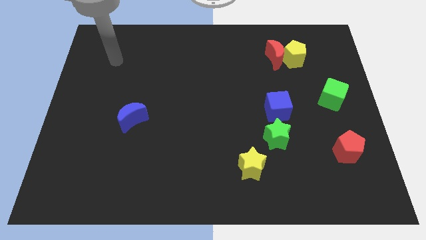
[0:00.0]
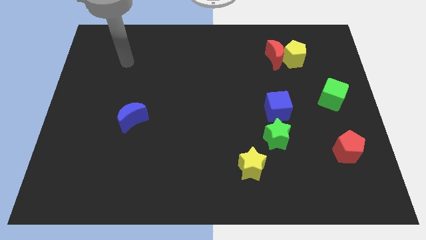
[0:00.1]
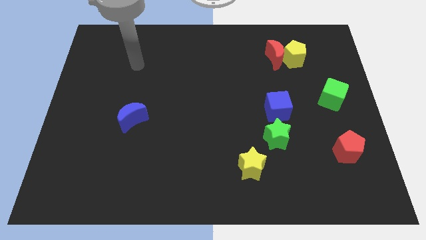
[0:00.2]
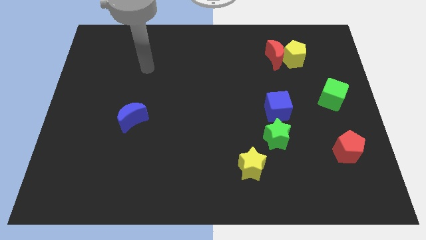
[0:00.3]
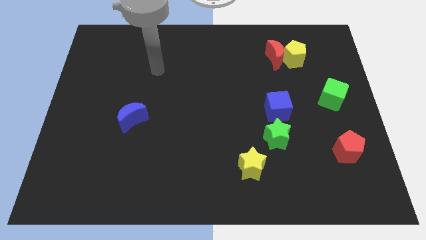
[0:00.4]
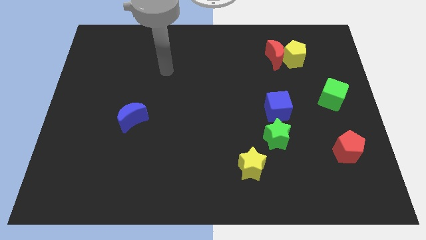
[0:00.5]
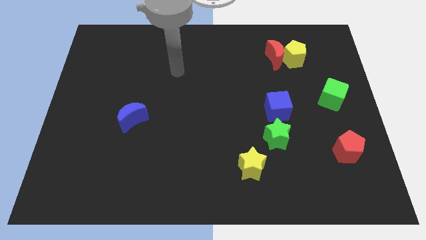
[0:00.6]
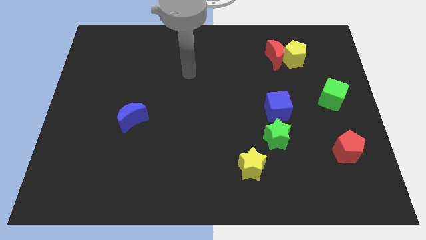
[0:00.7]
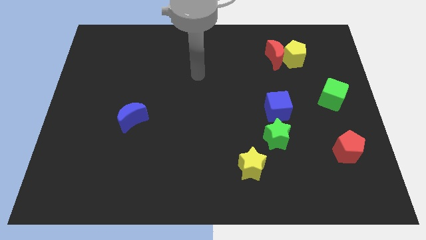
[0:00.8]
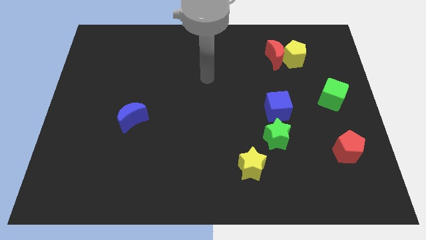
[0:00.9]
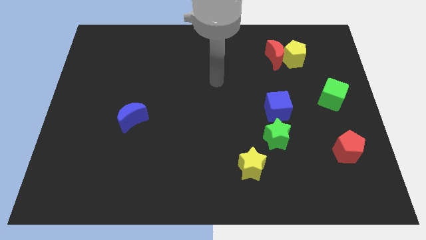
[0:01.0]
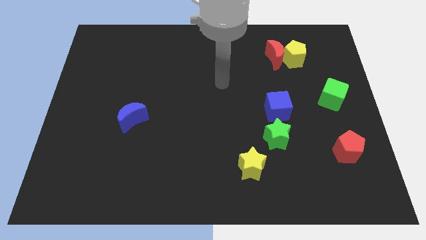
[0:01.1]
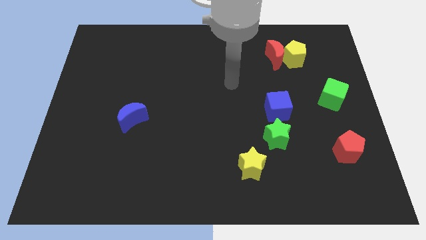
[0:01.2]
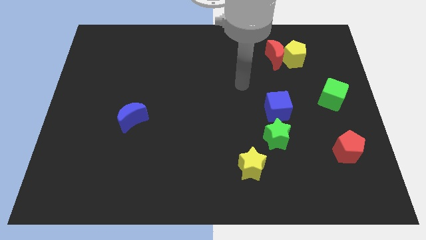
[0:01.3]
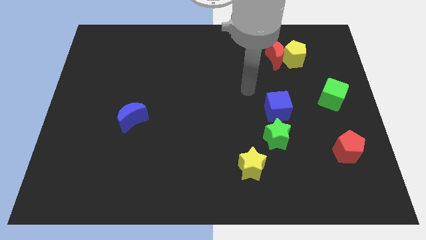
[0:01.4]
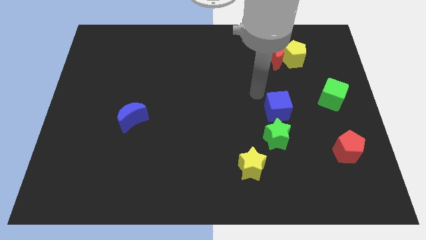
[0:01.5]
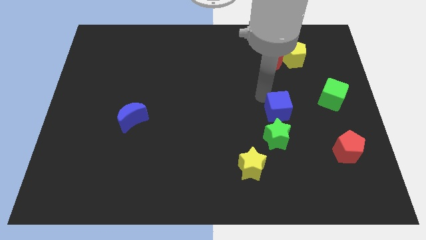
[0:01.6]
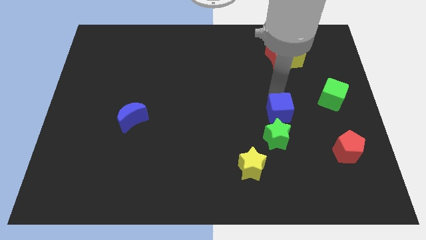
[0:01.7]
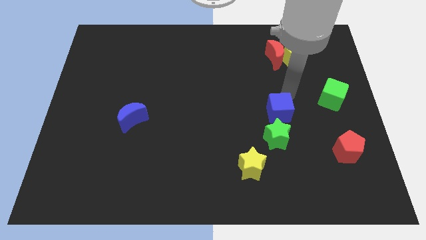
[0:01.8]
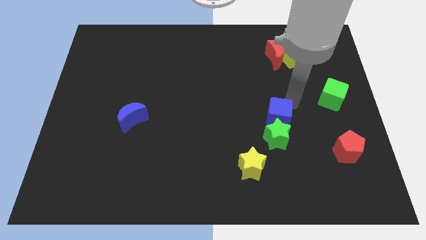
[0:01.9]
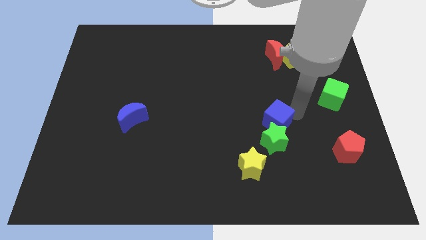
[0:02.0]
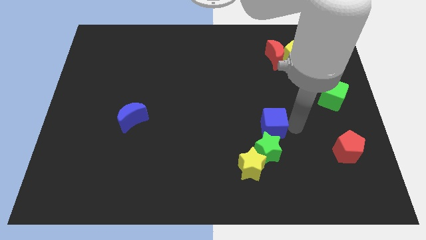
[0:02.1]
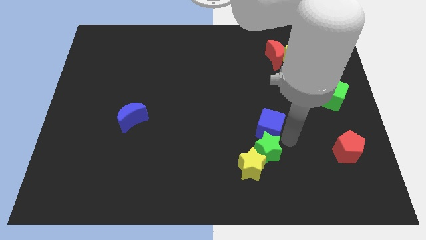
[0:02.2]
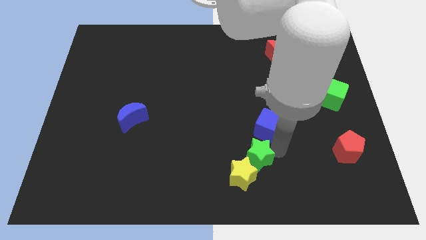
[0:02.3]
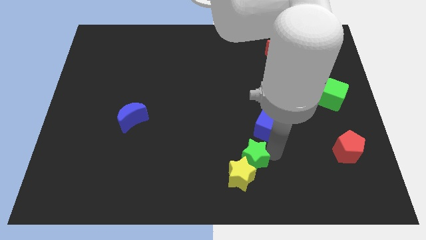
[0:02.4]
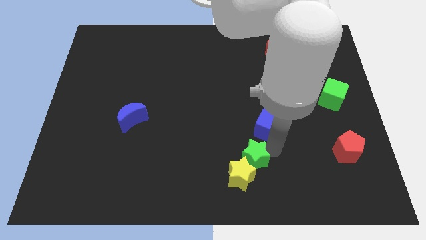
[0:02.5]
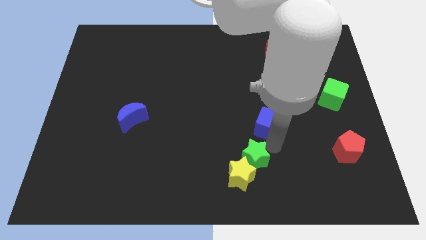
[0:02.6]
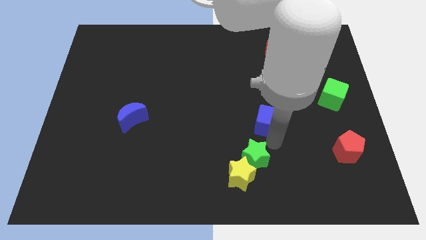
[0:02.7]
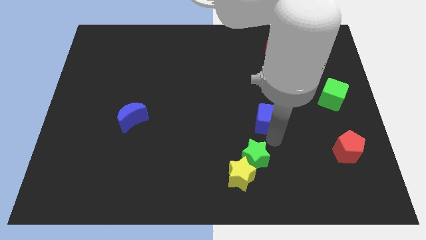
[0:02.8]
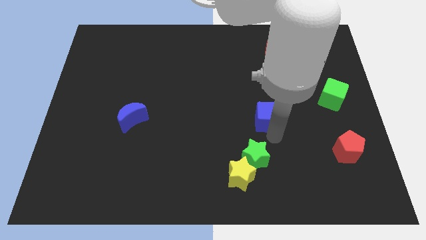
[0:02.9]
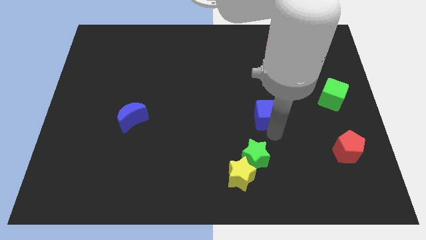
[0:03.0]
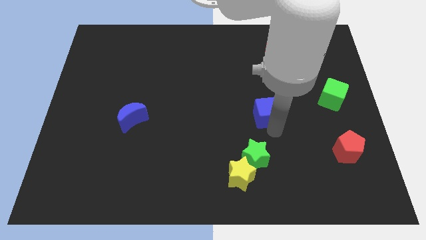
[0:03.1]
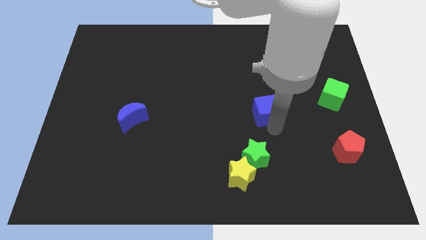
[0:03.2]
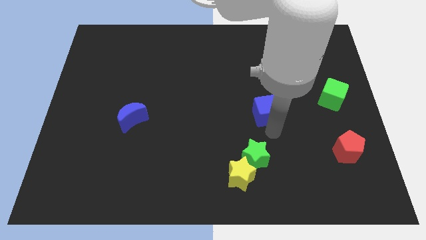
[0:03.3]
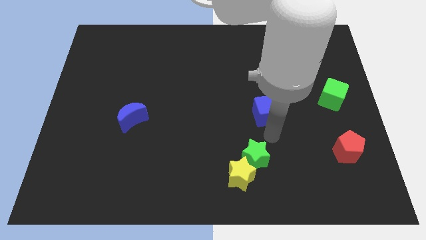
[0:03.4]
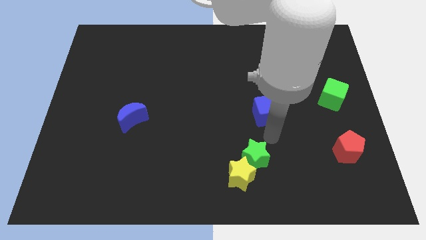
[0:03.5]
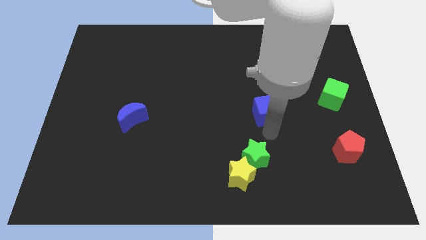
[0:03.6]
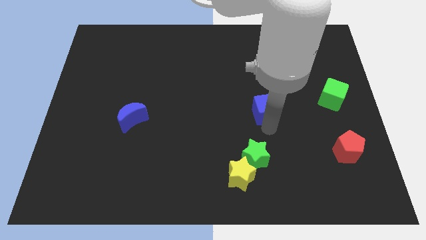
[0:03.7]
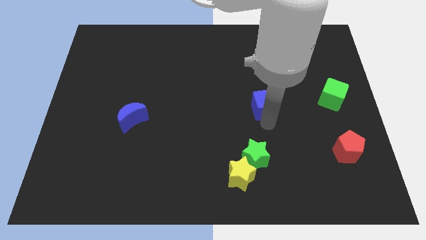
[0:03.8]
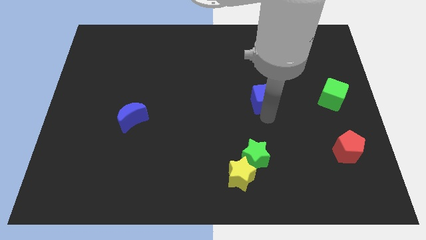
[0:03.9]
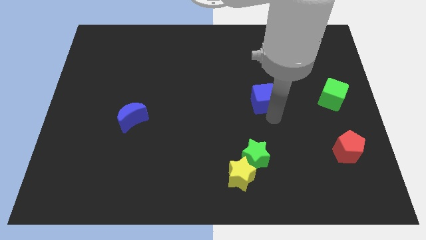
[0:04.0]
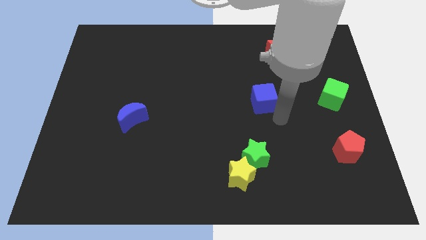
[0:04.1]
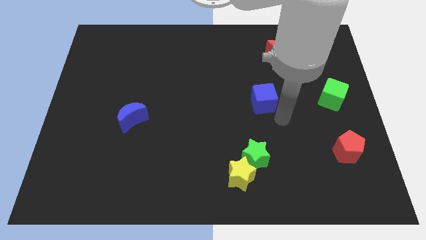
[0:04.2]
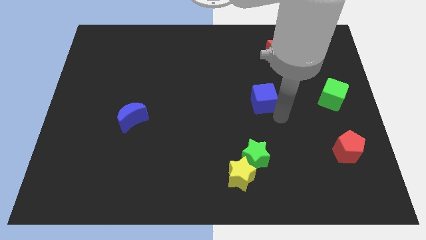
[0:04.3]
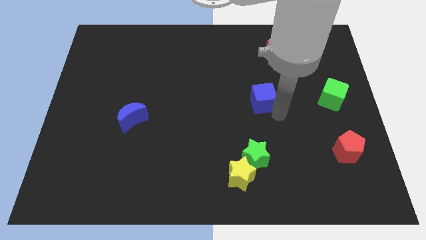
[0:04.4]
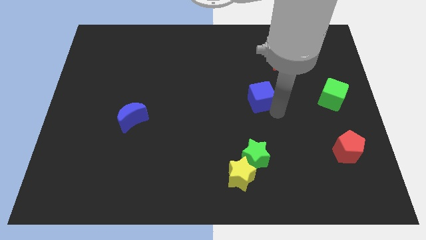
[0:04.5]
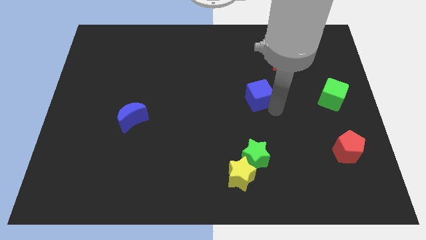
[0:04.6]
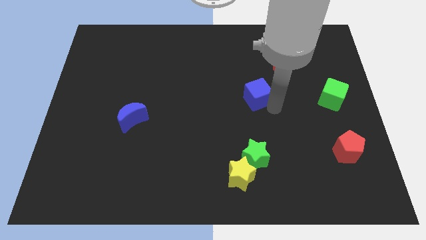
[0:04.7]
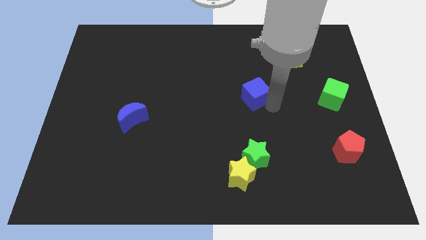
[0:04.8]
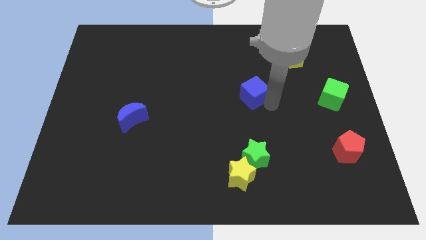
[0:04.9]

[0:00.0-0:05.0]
move the blue cube diagonally up and left a bit

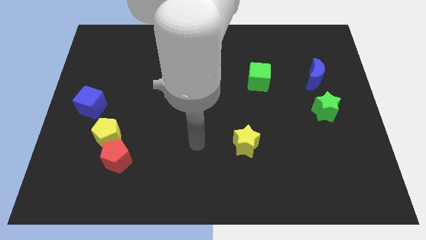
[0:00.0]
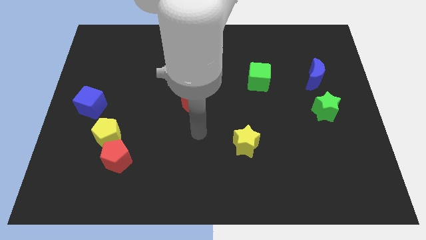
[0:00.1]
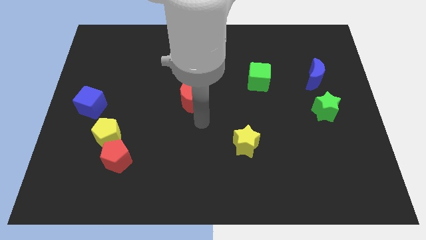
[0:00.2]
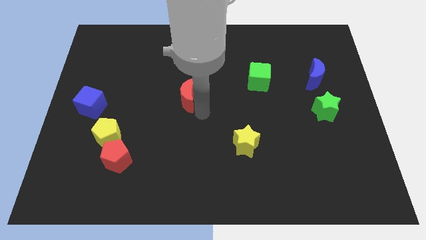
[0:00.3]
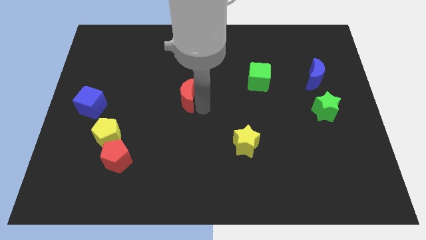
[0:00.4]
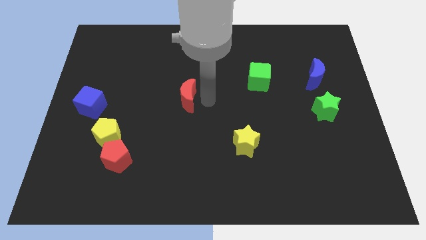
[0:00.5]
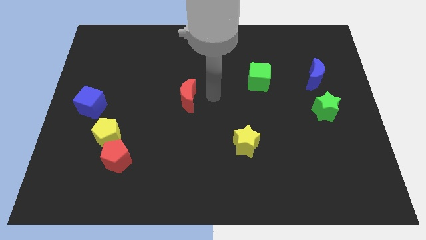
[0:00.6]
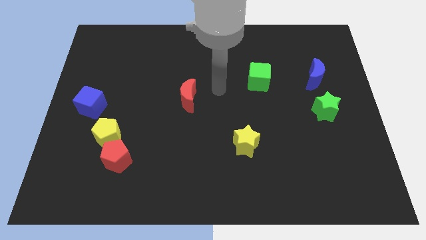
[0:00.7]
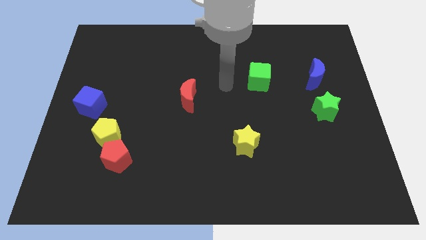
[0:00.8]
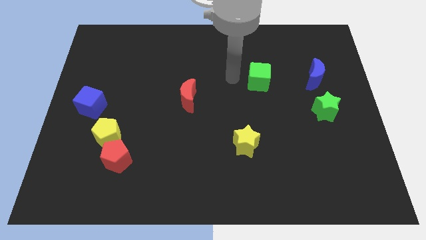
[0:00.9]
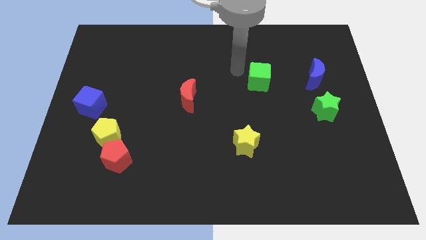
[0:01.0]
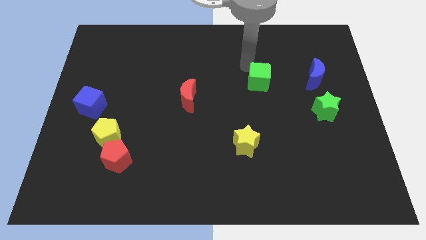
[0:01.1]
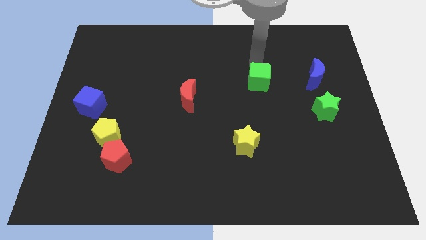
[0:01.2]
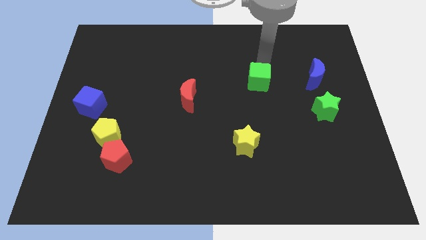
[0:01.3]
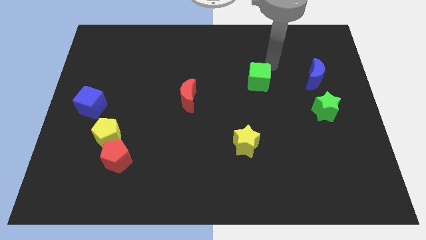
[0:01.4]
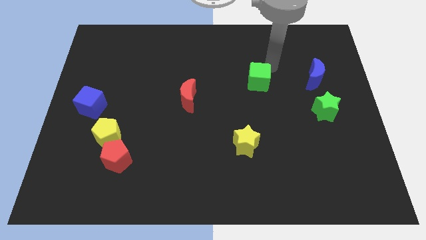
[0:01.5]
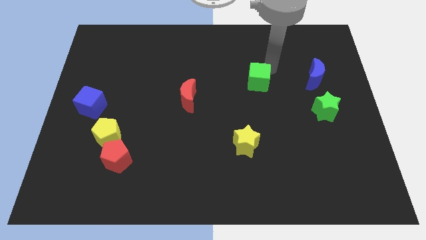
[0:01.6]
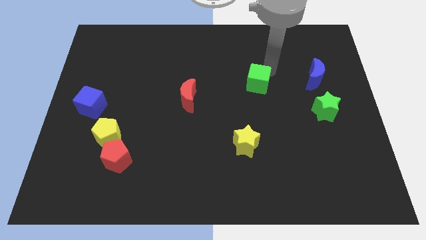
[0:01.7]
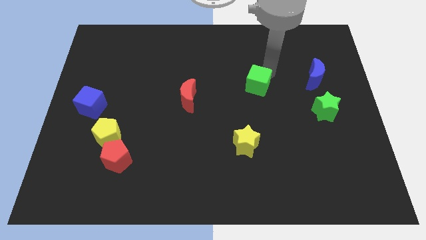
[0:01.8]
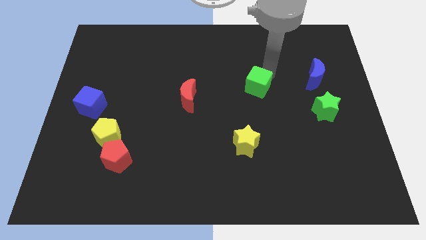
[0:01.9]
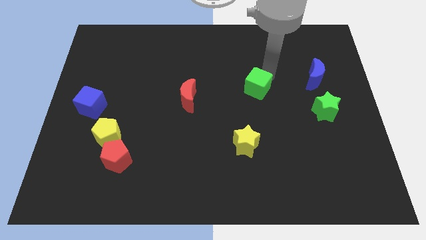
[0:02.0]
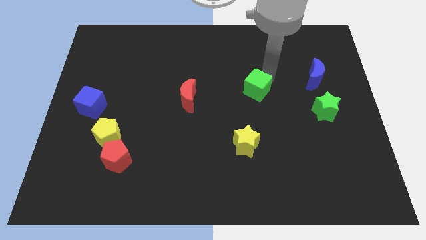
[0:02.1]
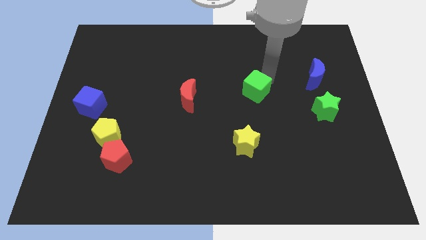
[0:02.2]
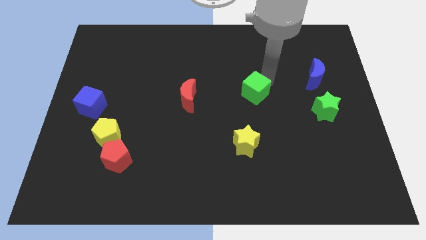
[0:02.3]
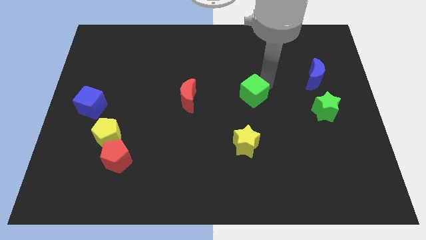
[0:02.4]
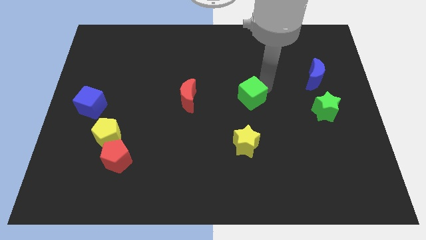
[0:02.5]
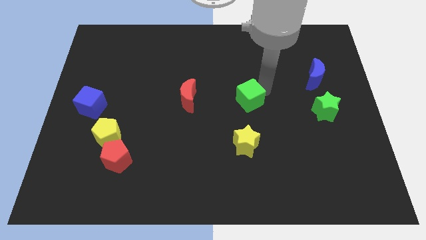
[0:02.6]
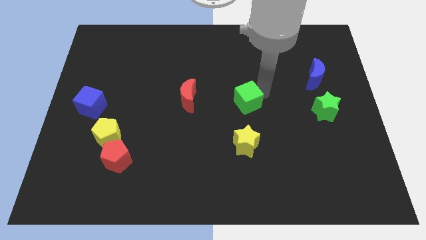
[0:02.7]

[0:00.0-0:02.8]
move the green cube diagonally downwards and to the left slightly
